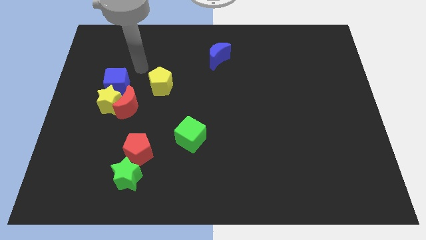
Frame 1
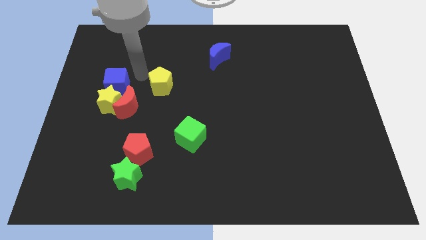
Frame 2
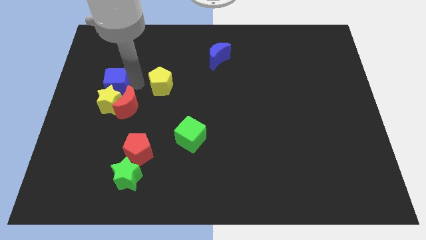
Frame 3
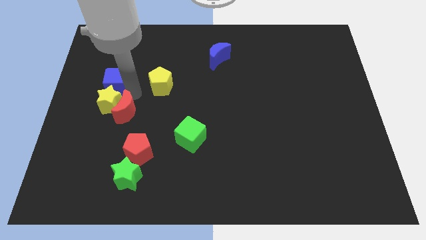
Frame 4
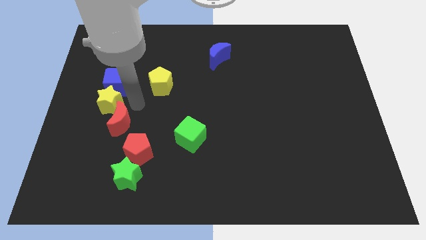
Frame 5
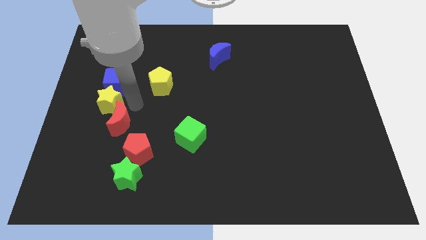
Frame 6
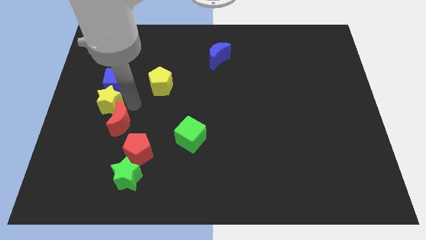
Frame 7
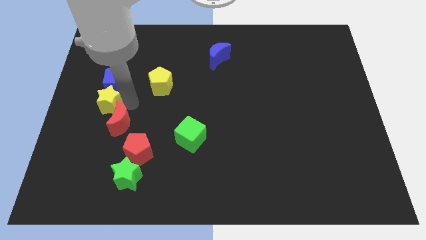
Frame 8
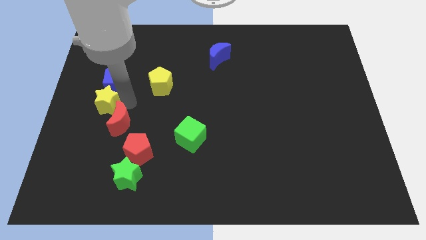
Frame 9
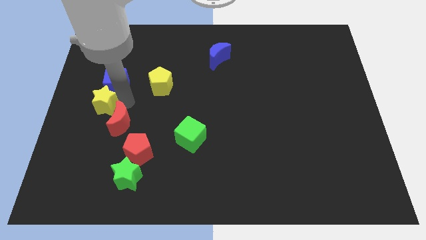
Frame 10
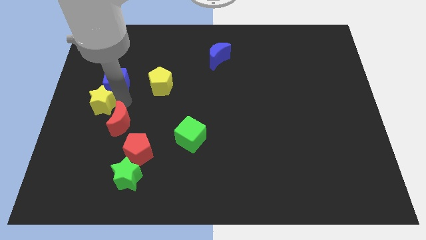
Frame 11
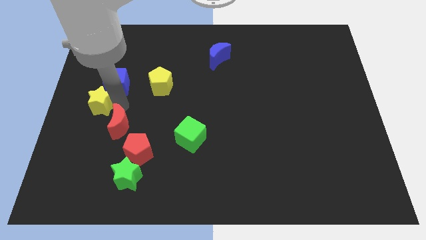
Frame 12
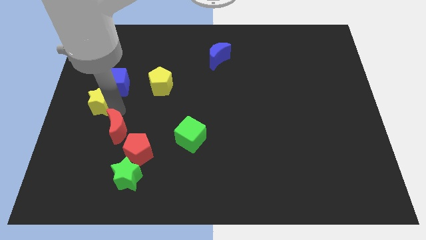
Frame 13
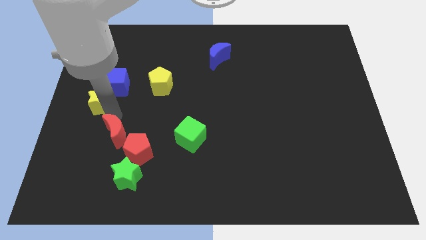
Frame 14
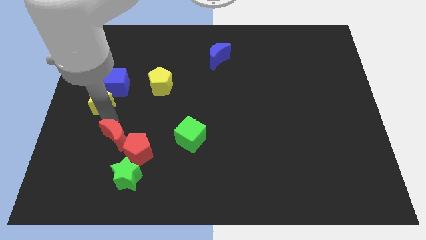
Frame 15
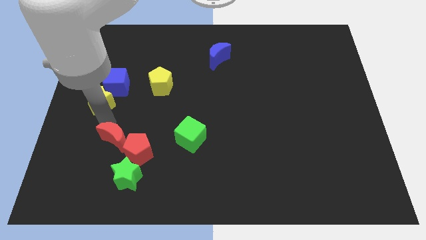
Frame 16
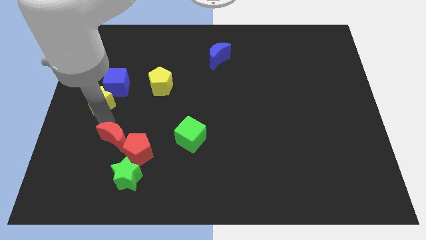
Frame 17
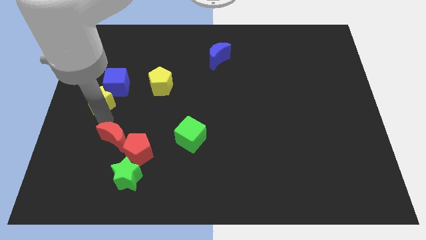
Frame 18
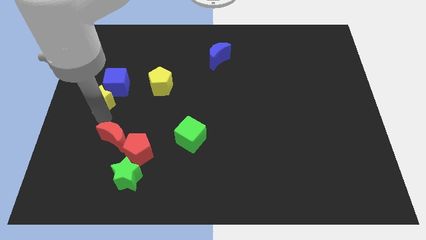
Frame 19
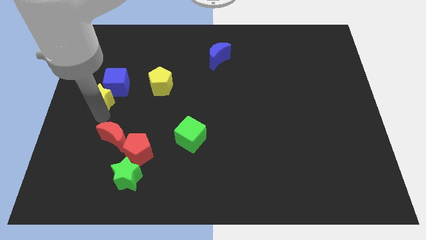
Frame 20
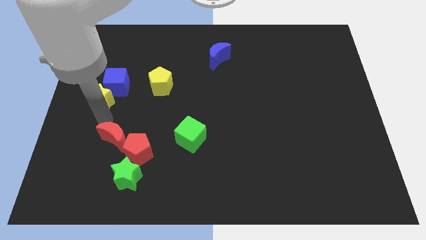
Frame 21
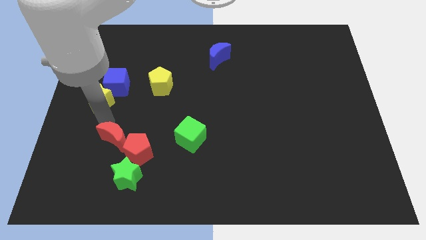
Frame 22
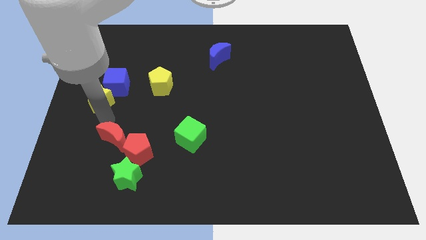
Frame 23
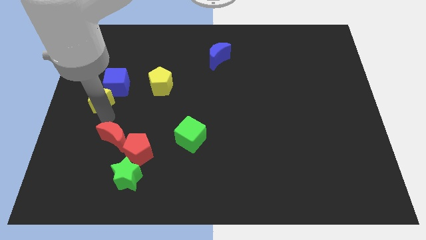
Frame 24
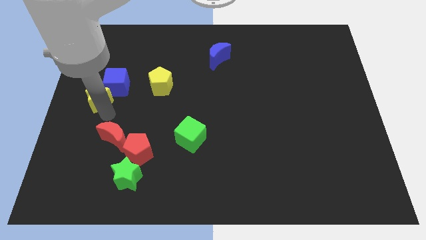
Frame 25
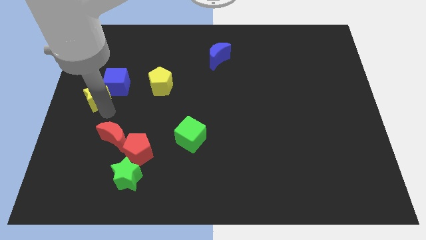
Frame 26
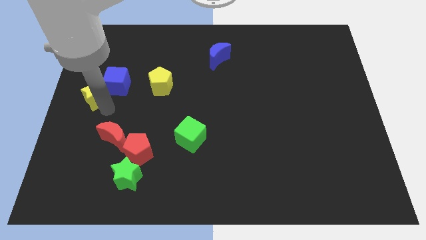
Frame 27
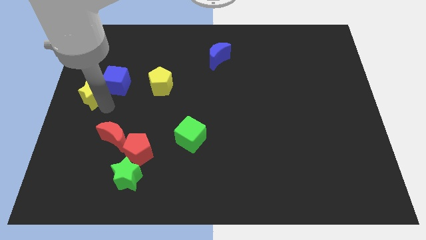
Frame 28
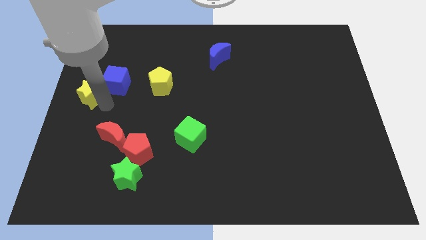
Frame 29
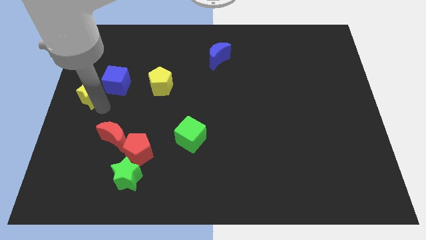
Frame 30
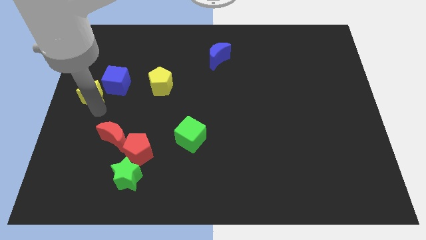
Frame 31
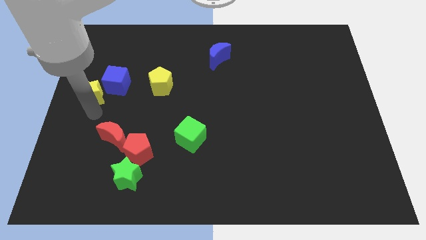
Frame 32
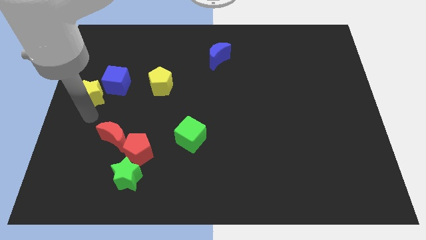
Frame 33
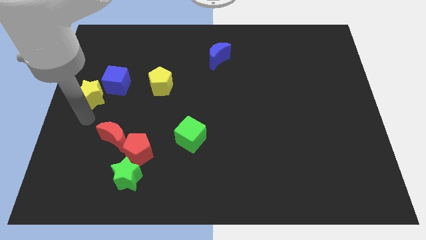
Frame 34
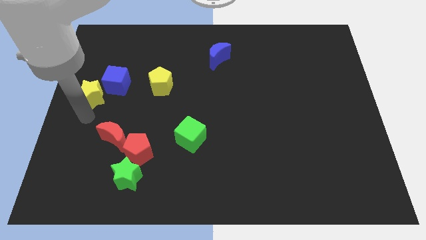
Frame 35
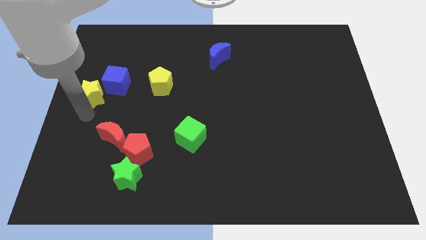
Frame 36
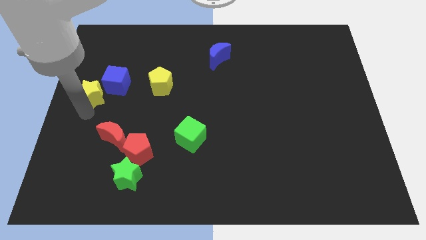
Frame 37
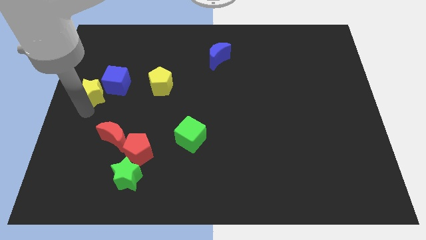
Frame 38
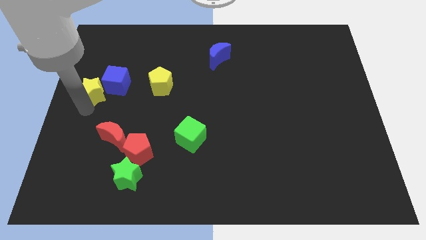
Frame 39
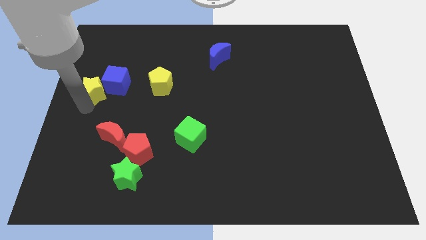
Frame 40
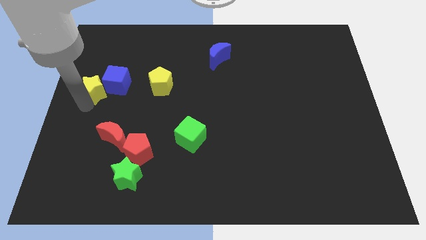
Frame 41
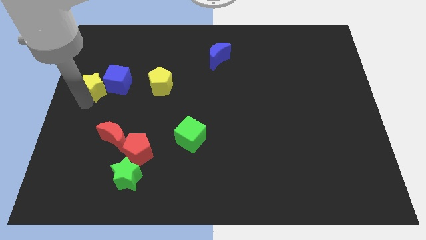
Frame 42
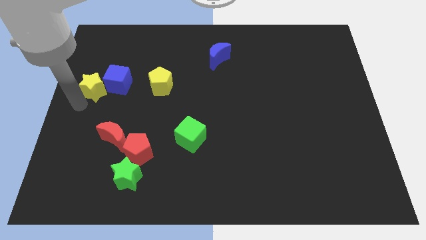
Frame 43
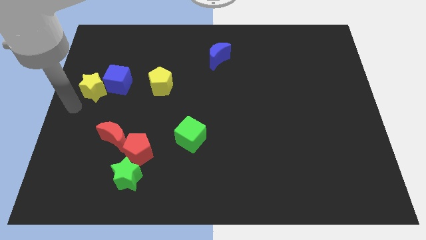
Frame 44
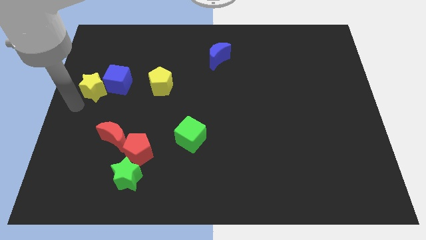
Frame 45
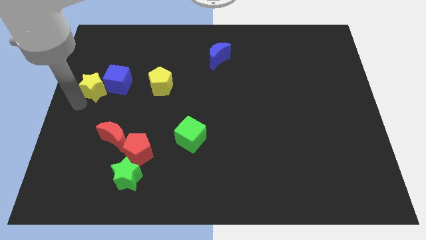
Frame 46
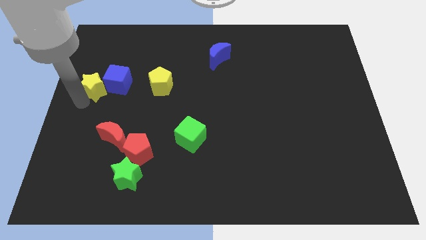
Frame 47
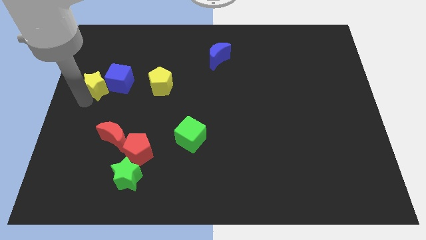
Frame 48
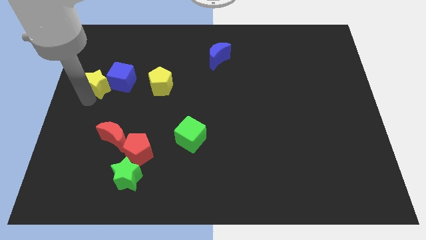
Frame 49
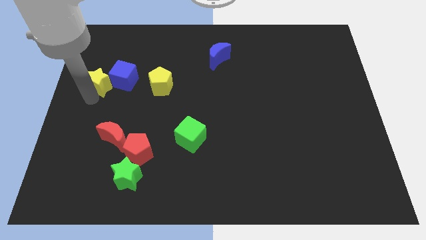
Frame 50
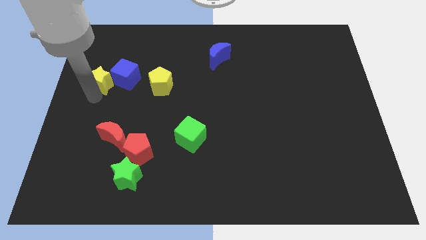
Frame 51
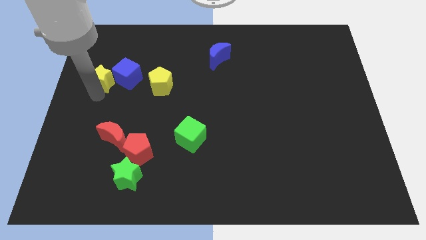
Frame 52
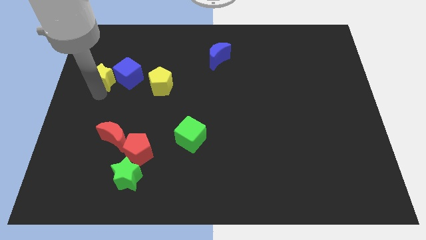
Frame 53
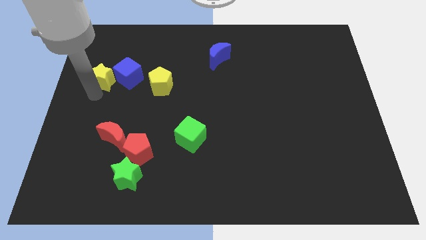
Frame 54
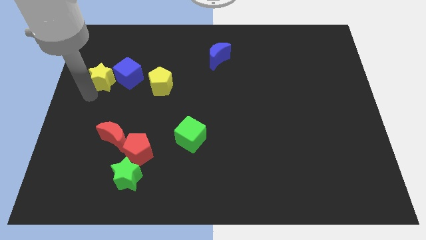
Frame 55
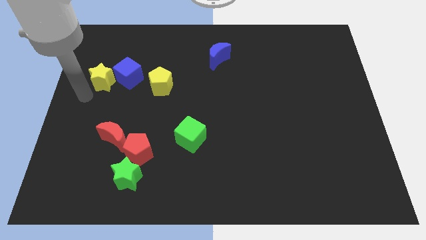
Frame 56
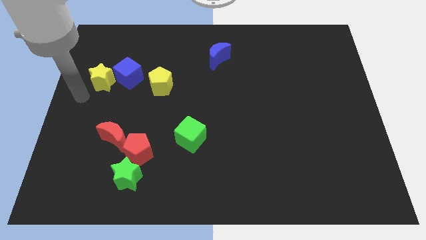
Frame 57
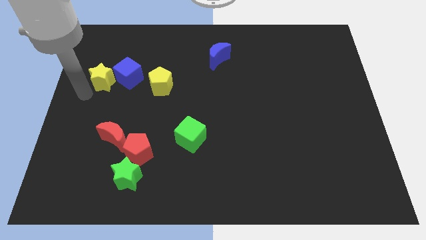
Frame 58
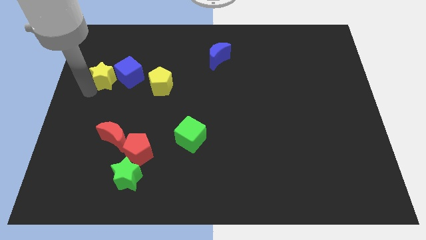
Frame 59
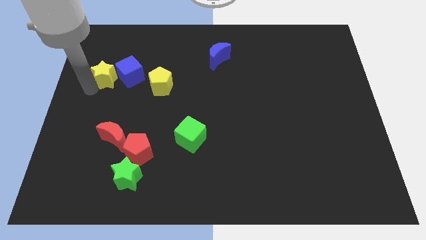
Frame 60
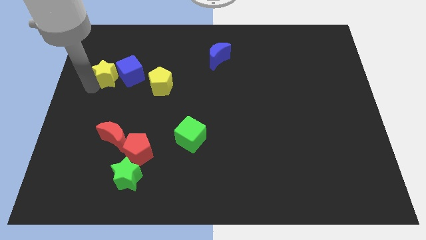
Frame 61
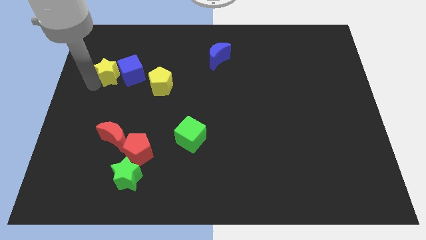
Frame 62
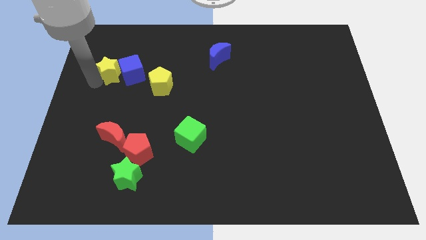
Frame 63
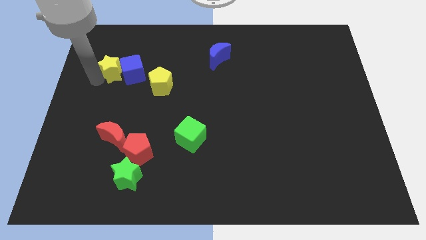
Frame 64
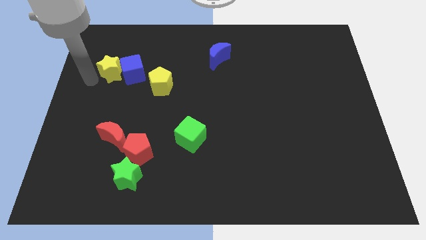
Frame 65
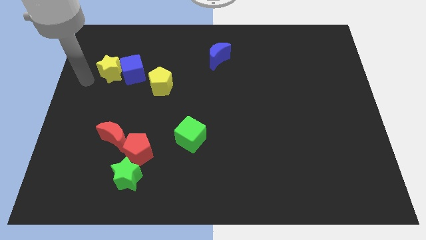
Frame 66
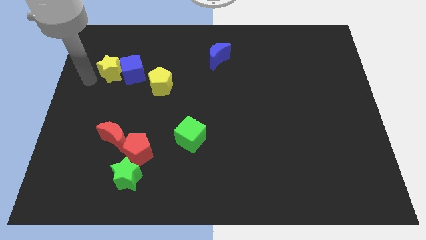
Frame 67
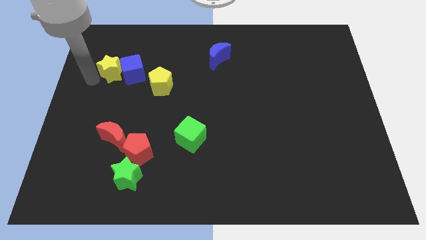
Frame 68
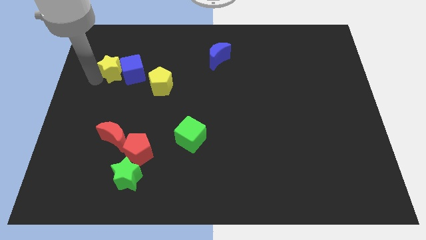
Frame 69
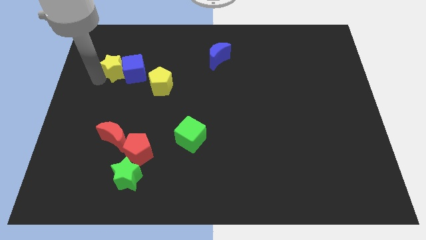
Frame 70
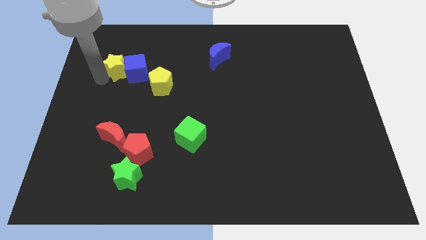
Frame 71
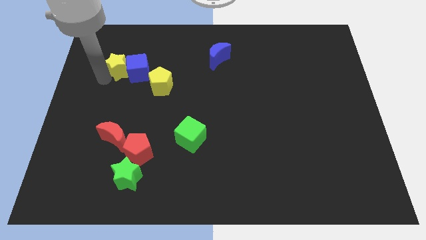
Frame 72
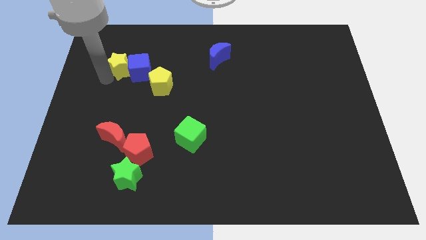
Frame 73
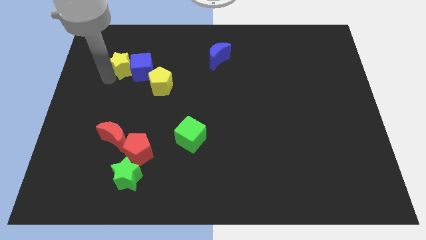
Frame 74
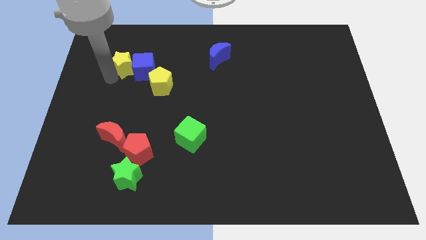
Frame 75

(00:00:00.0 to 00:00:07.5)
slightly move the yellow star diagonally up and right

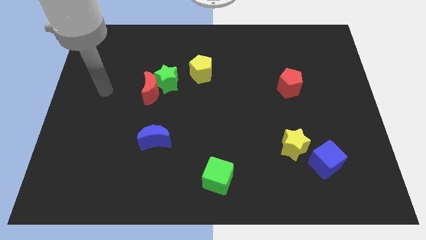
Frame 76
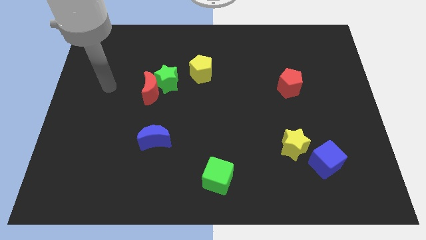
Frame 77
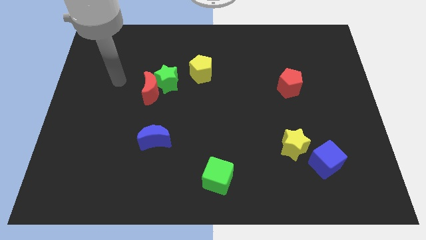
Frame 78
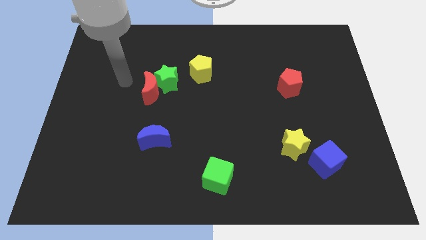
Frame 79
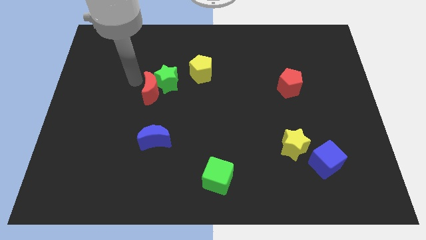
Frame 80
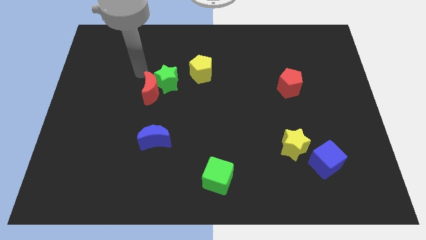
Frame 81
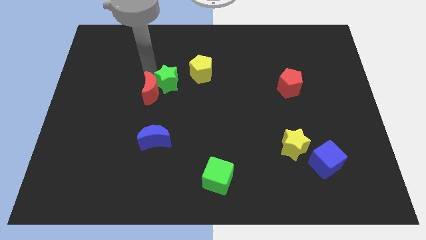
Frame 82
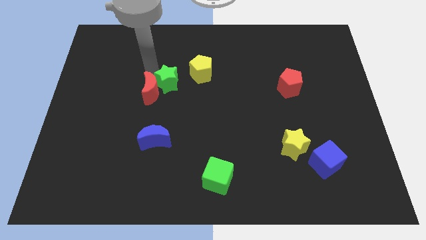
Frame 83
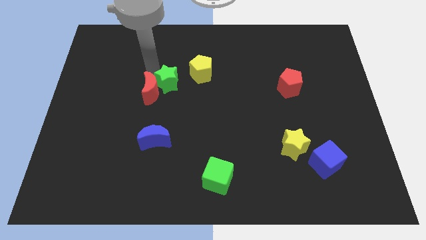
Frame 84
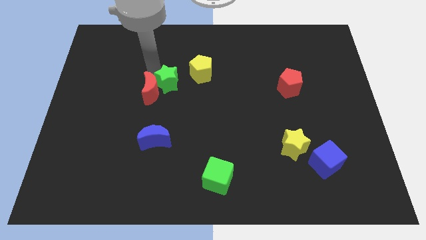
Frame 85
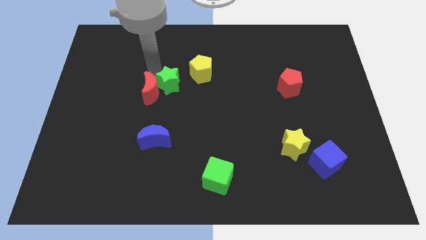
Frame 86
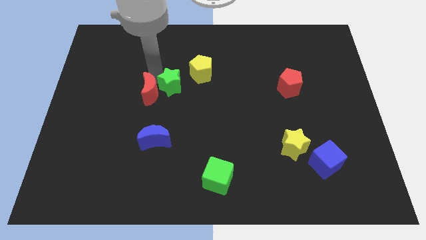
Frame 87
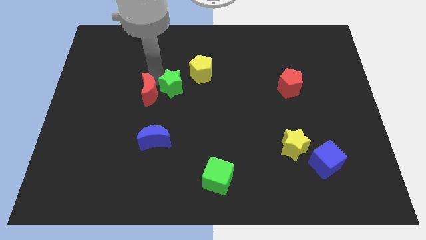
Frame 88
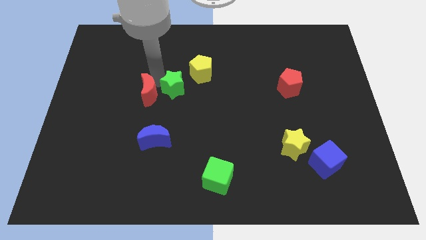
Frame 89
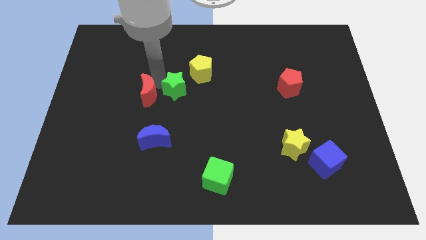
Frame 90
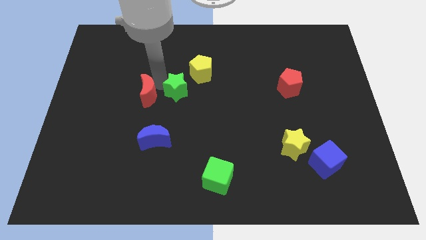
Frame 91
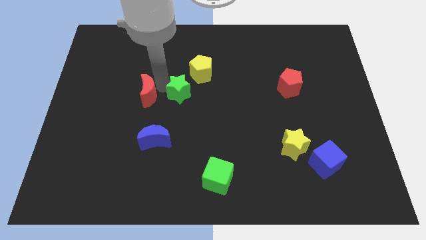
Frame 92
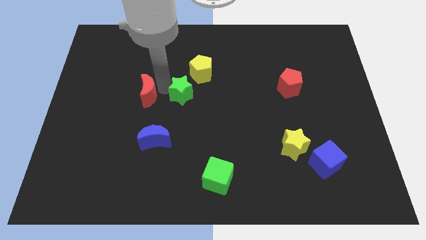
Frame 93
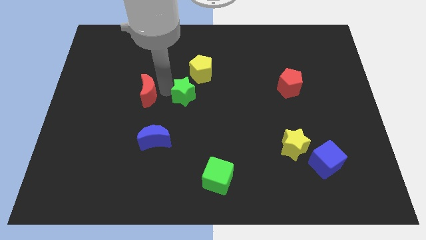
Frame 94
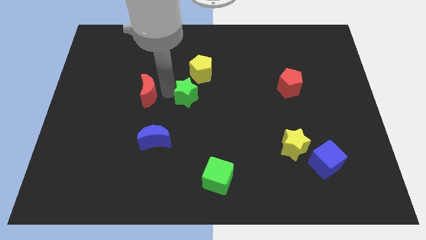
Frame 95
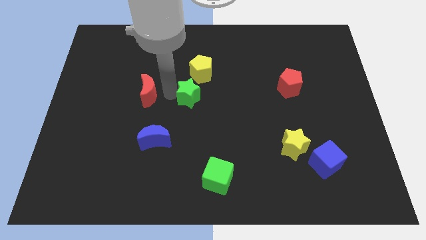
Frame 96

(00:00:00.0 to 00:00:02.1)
push the green star downwards and right slightly
